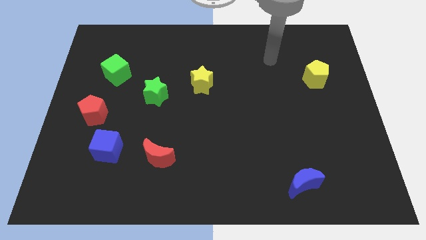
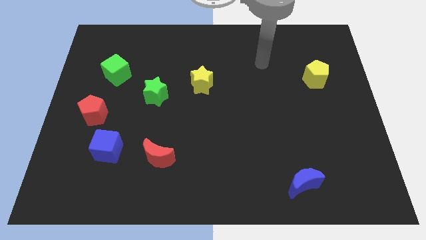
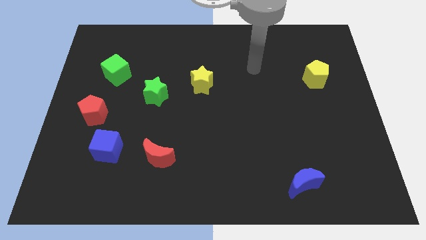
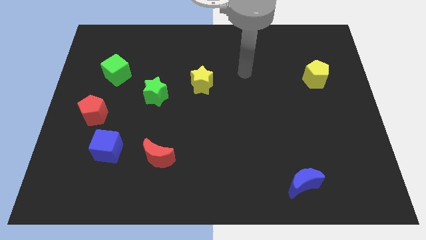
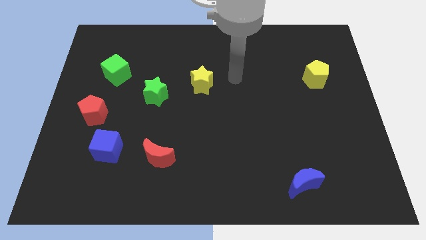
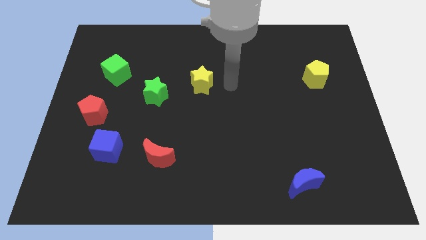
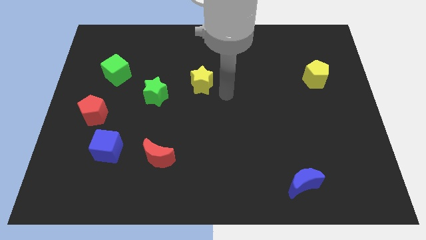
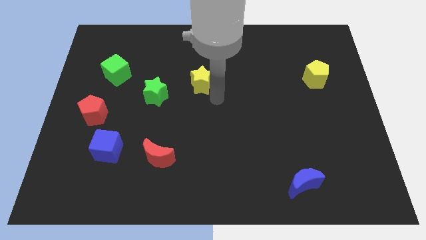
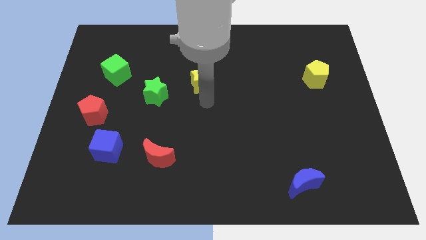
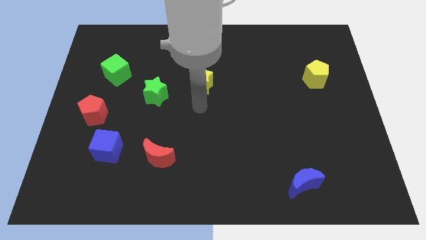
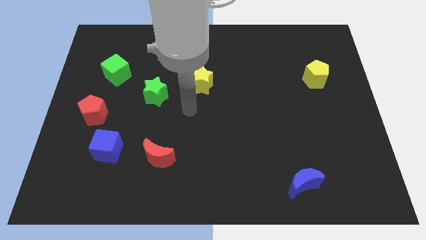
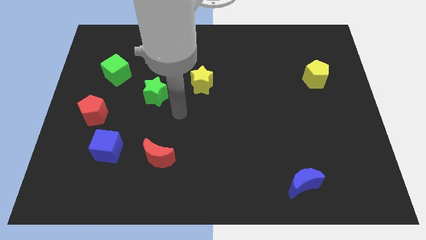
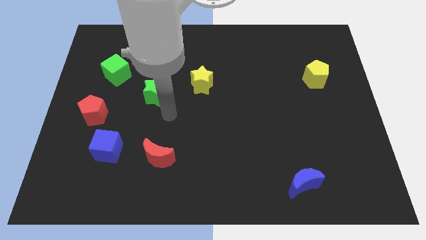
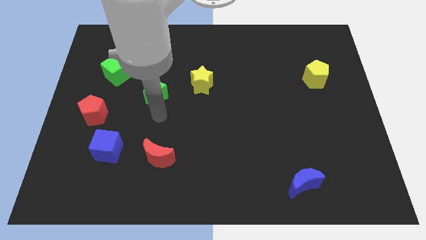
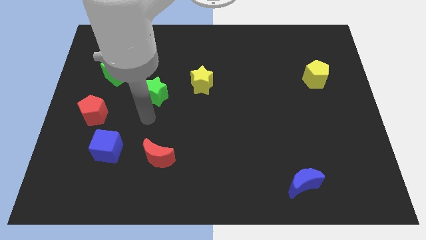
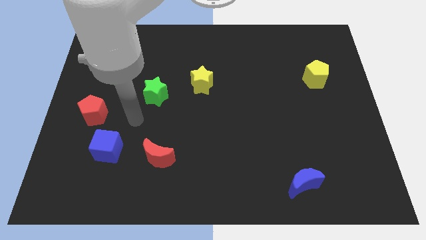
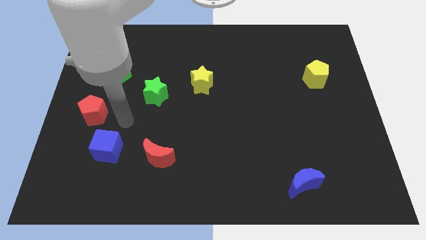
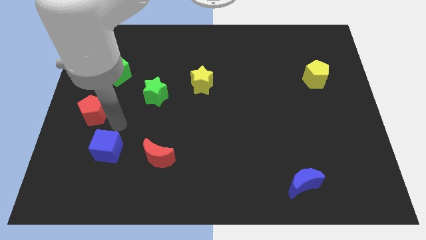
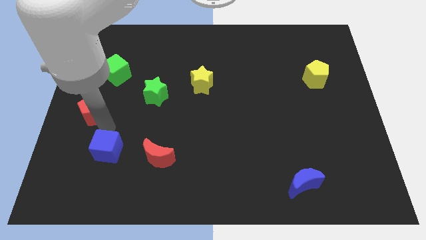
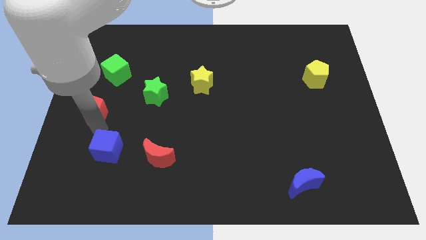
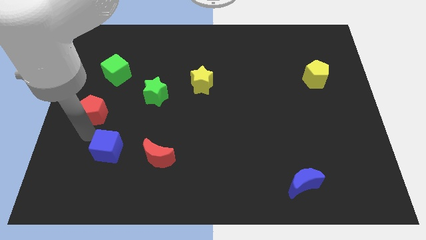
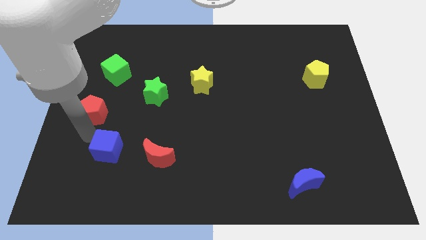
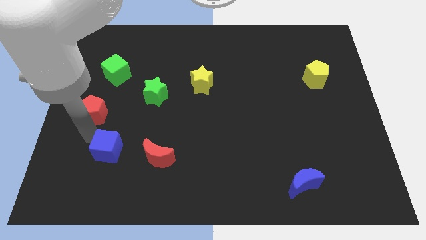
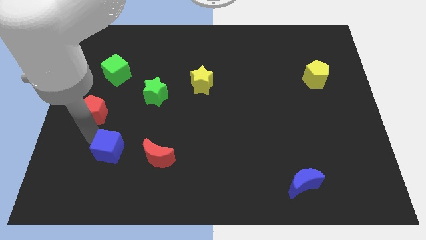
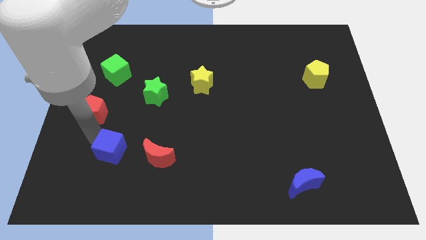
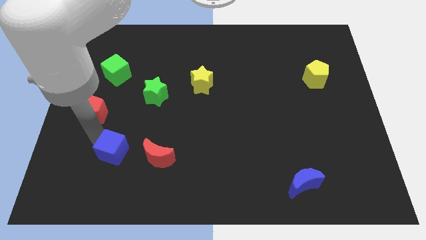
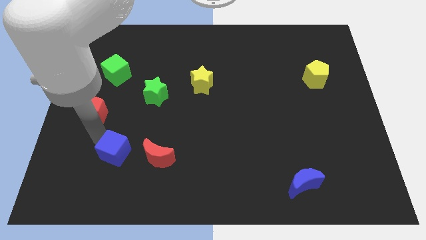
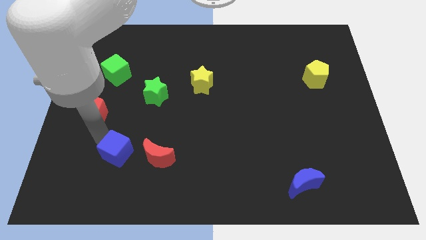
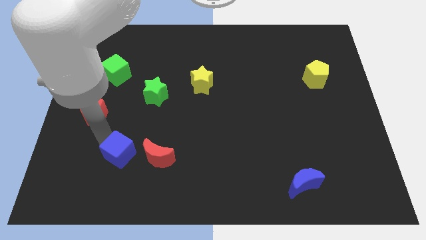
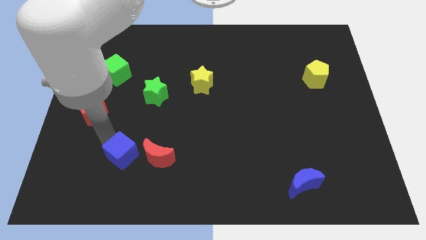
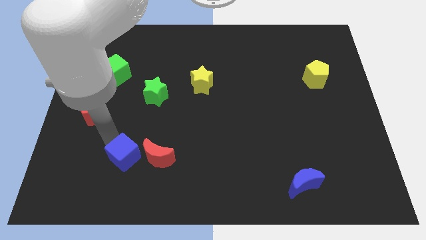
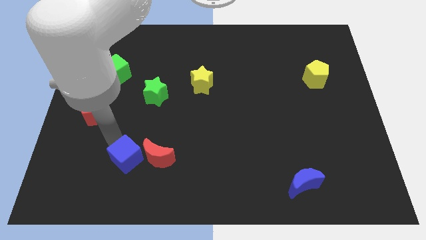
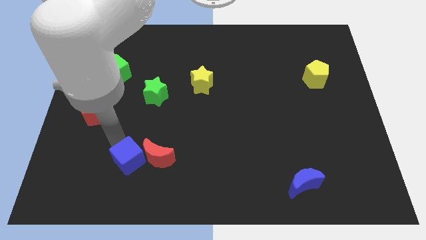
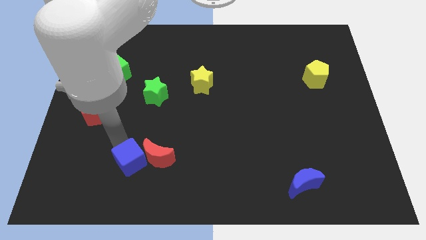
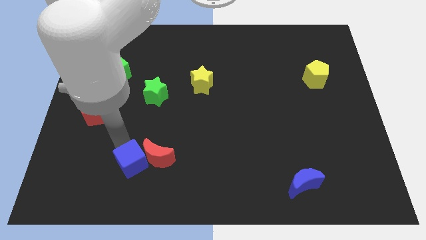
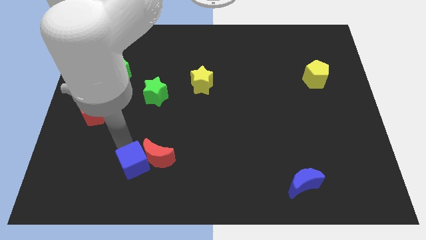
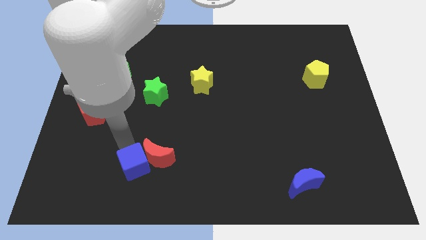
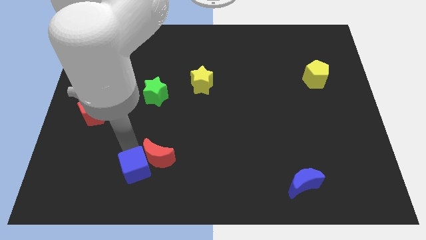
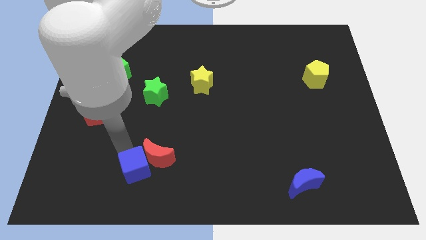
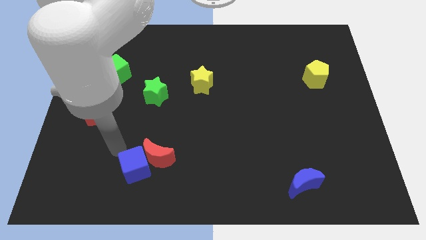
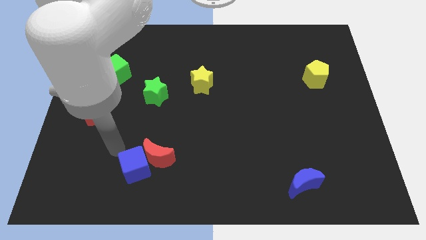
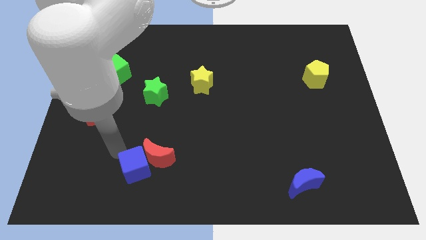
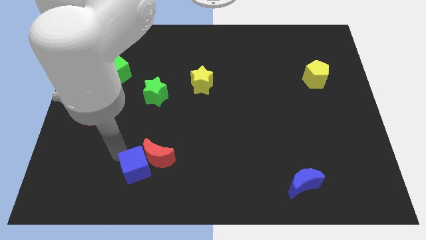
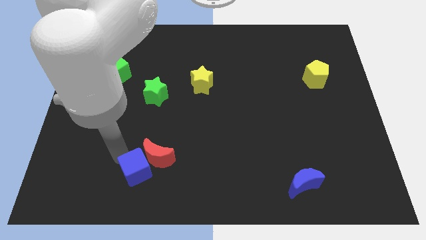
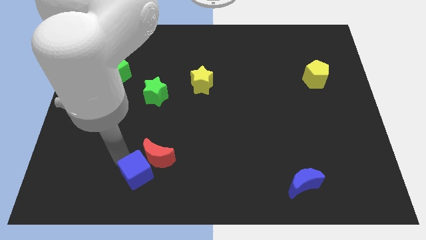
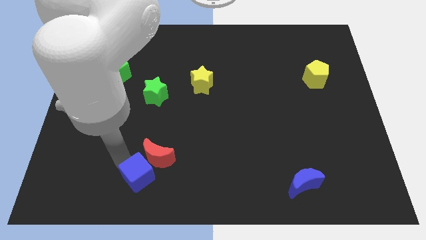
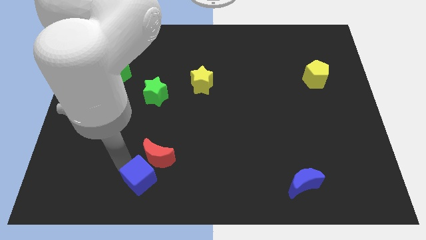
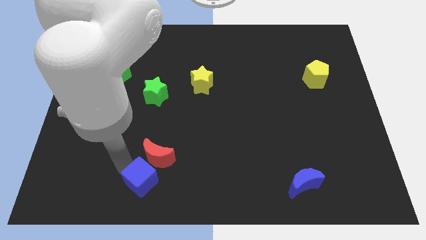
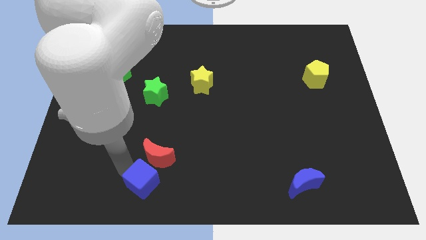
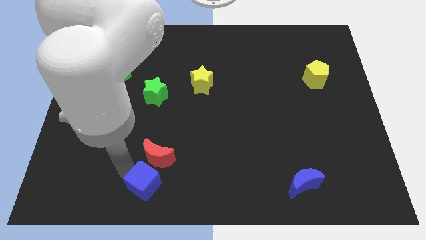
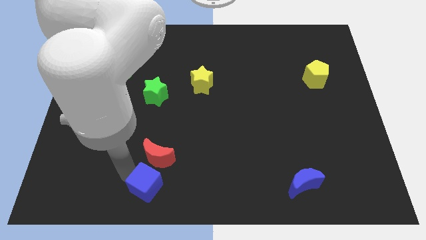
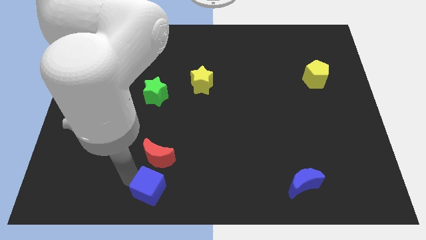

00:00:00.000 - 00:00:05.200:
slide the blue cube to the bottom

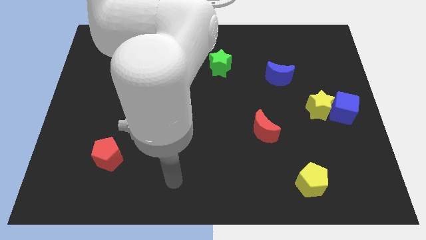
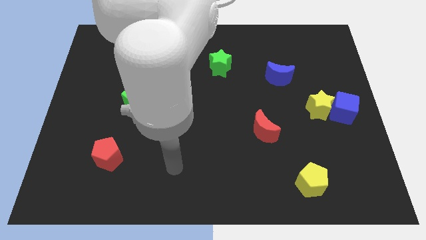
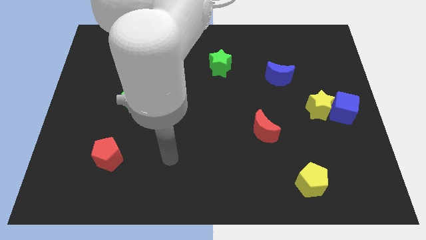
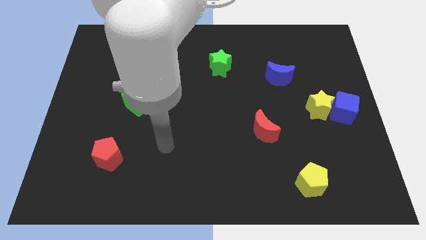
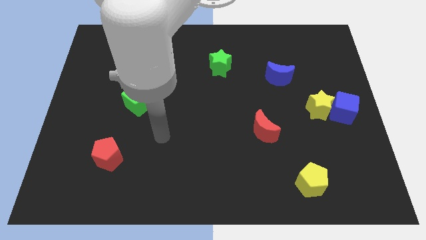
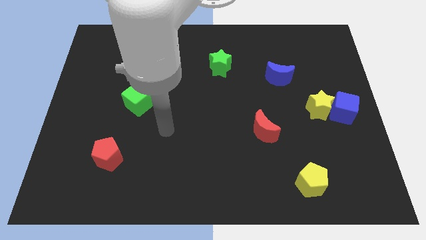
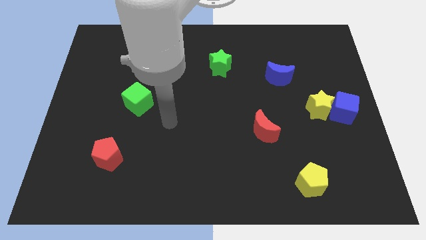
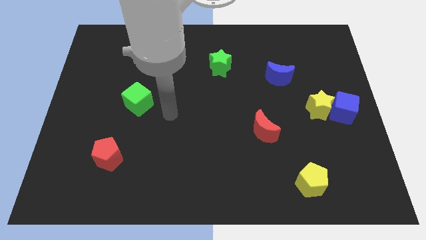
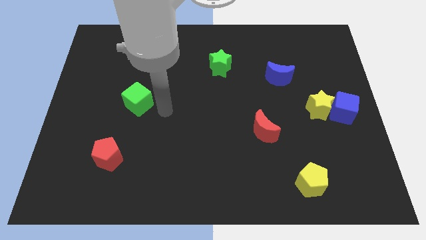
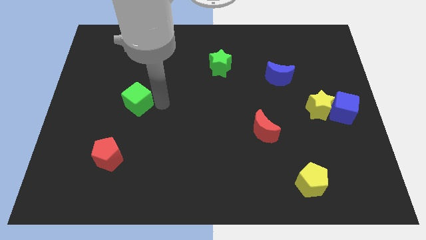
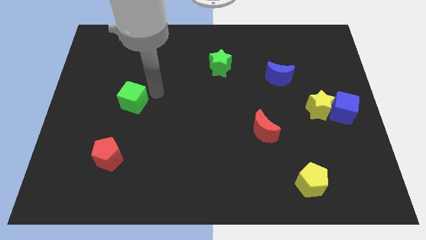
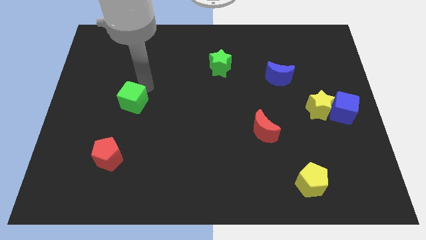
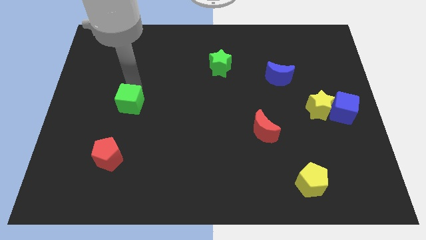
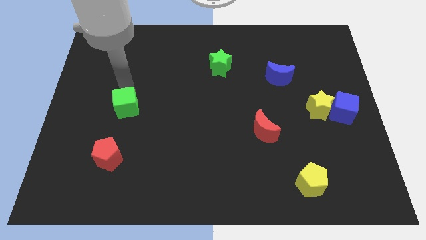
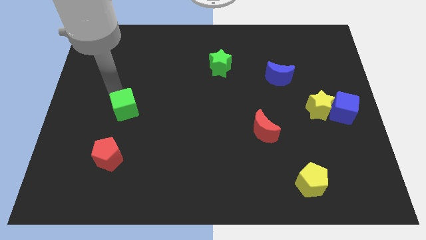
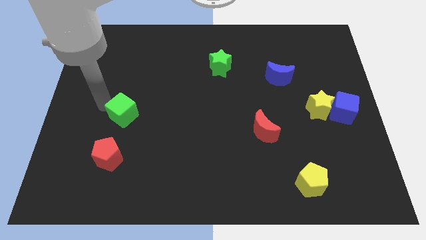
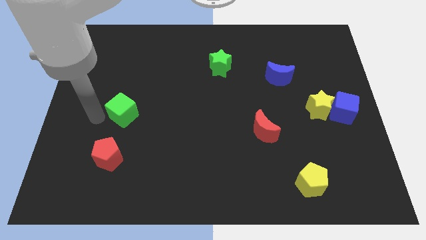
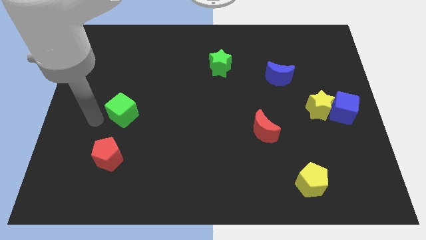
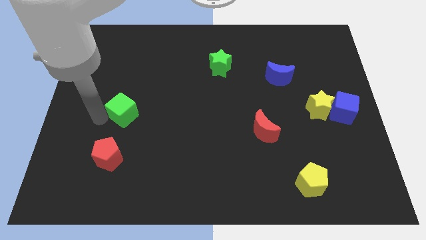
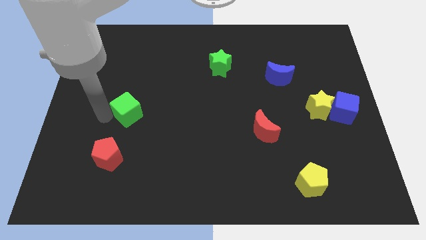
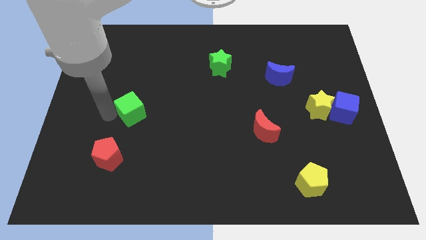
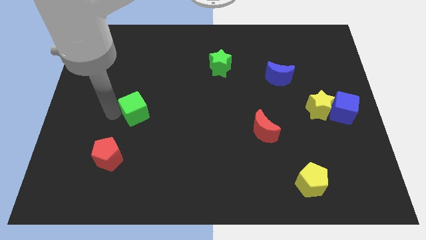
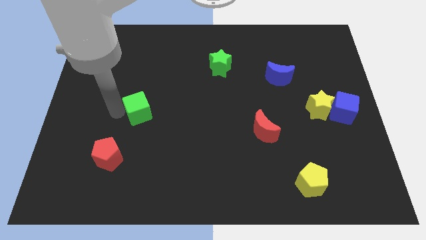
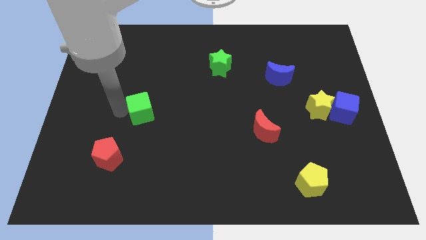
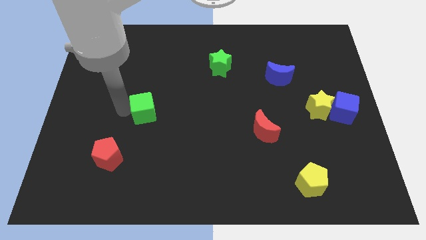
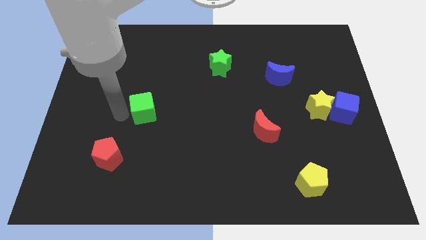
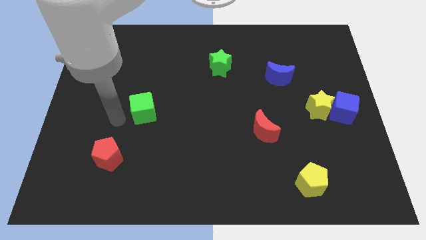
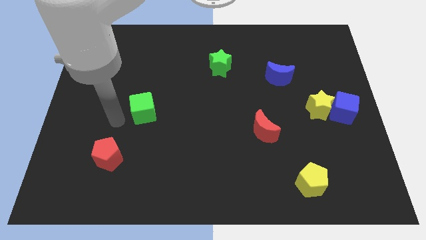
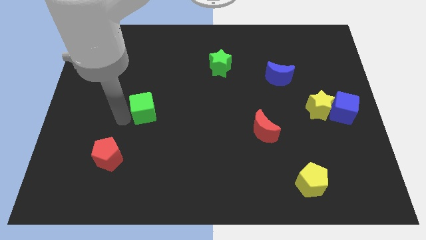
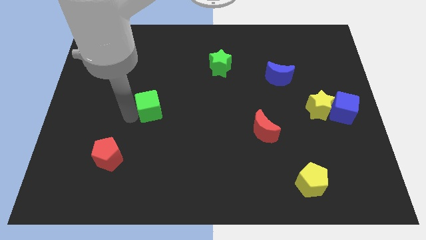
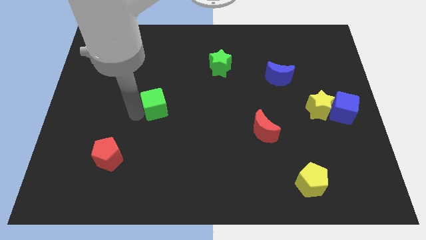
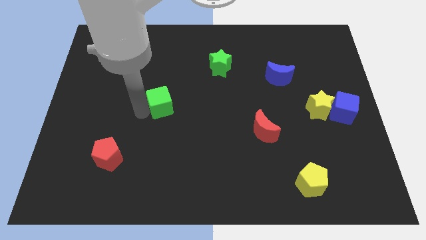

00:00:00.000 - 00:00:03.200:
move the green cube to the middle of the board
